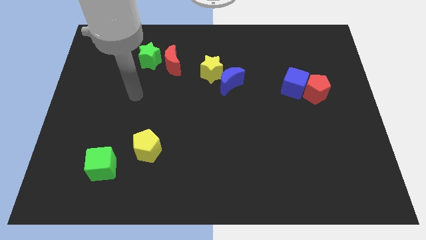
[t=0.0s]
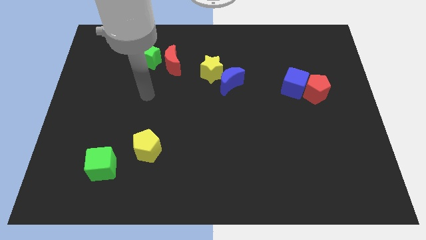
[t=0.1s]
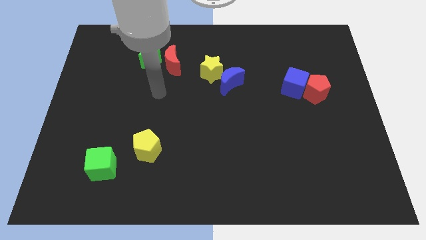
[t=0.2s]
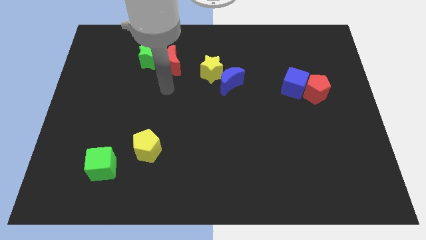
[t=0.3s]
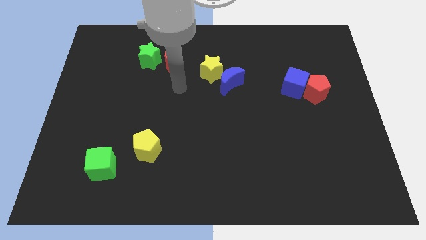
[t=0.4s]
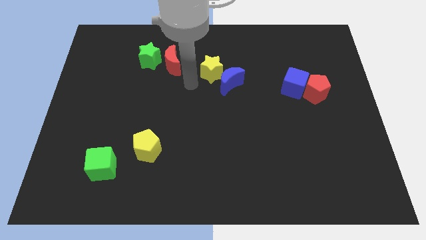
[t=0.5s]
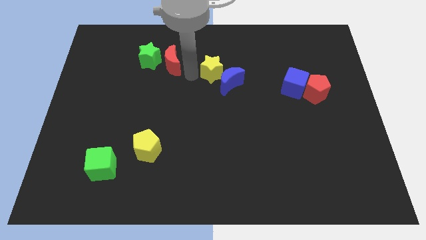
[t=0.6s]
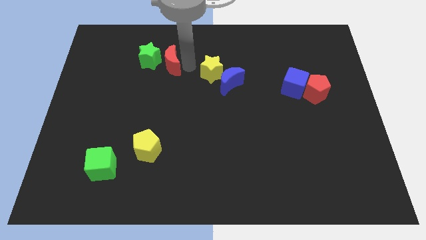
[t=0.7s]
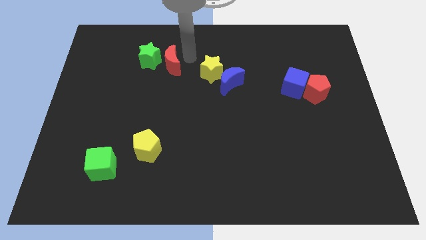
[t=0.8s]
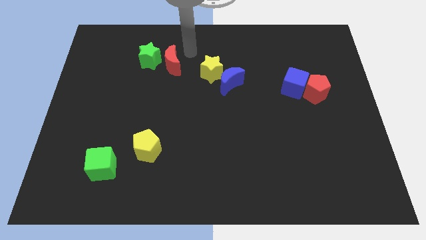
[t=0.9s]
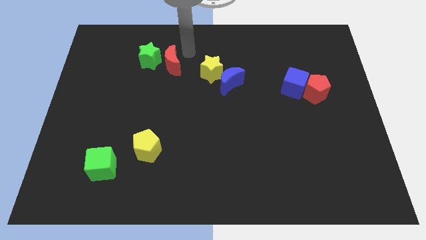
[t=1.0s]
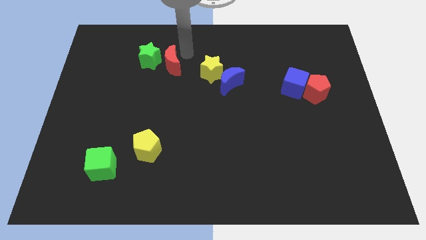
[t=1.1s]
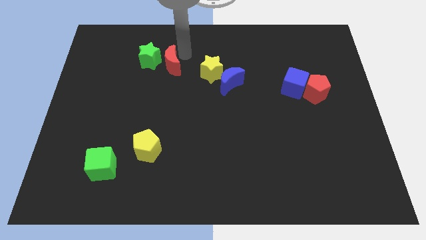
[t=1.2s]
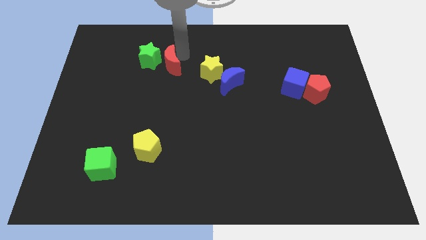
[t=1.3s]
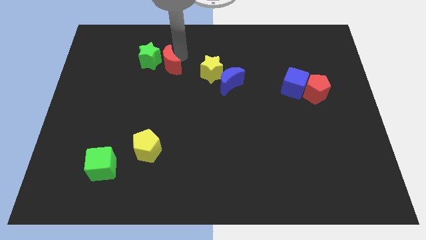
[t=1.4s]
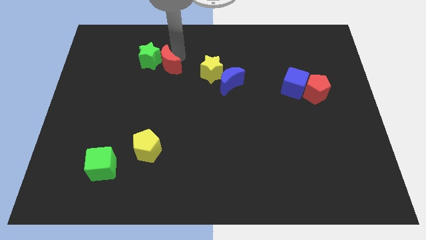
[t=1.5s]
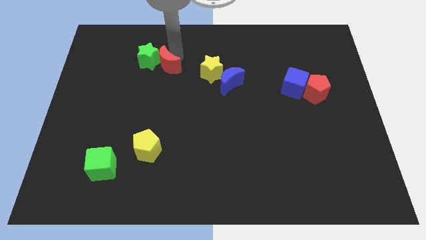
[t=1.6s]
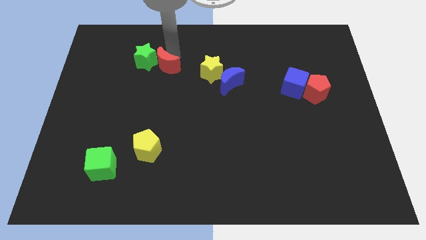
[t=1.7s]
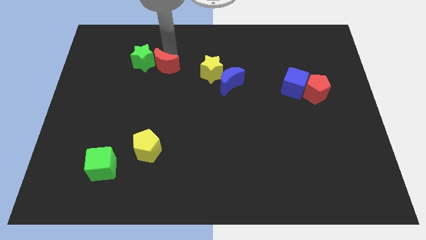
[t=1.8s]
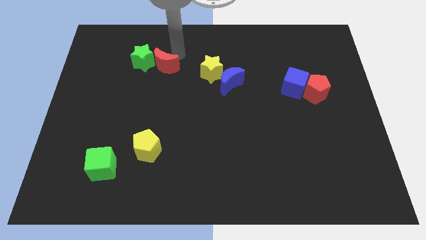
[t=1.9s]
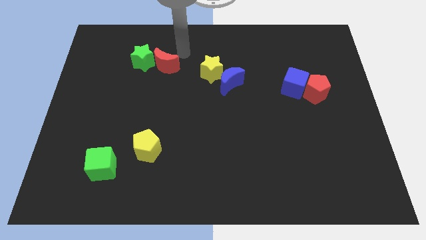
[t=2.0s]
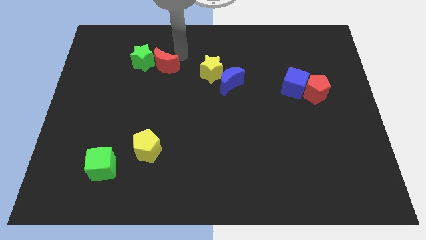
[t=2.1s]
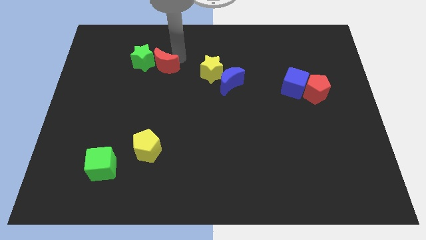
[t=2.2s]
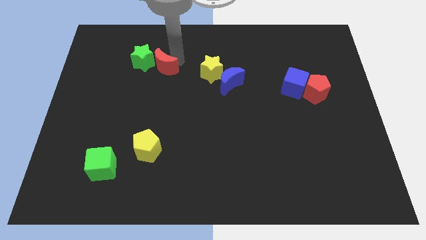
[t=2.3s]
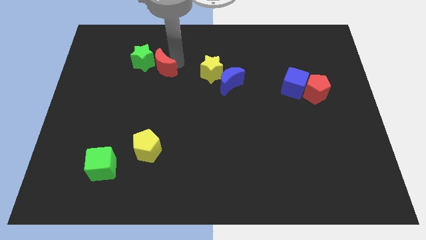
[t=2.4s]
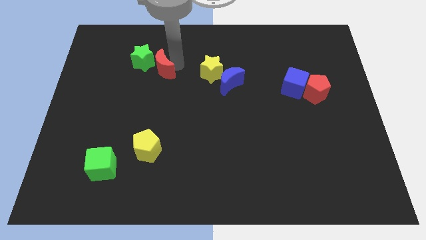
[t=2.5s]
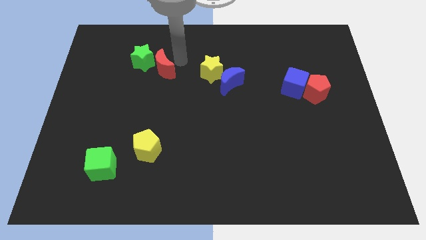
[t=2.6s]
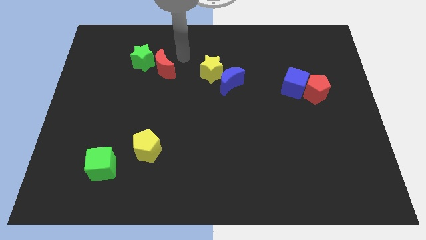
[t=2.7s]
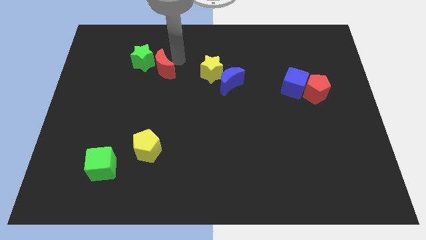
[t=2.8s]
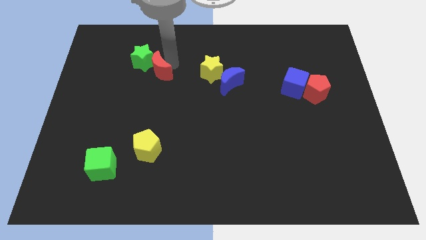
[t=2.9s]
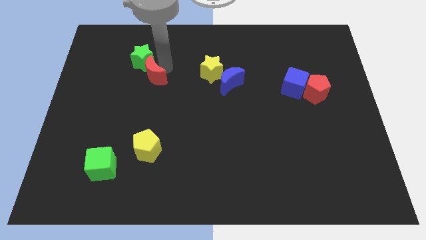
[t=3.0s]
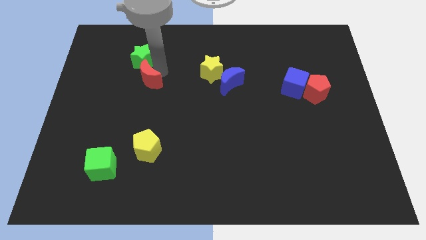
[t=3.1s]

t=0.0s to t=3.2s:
move the red moon diagonally down and left a bit

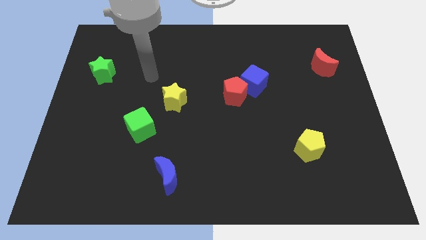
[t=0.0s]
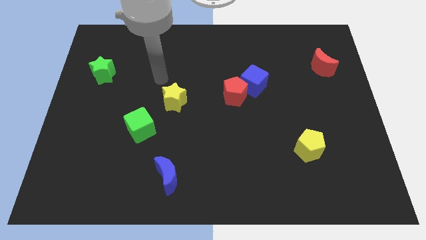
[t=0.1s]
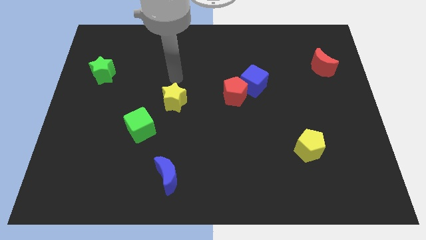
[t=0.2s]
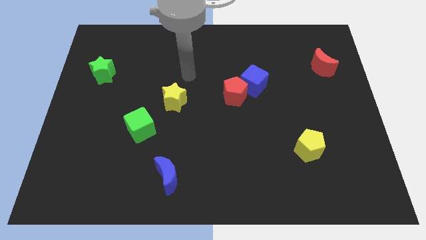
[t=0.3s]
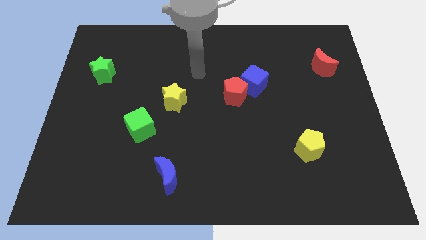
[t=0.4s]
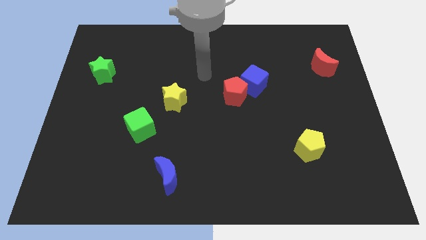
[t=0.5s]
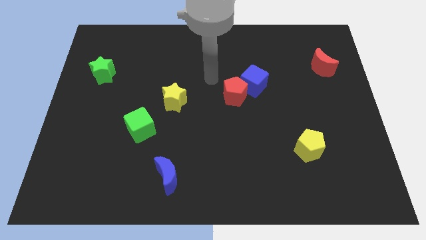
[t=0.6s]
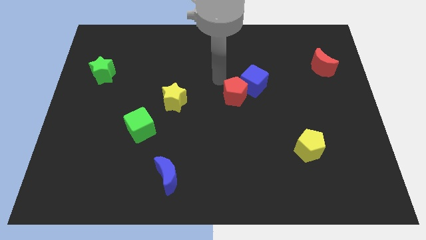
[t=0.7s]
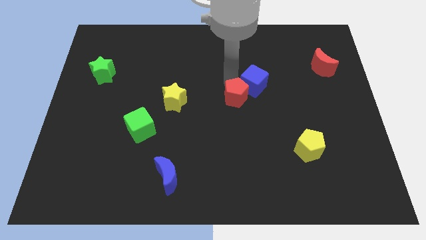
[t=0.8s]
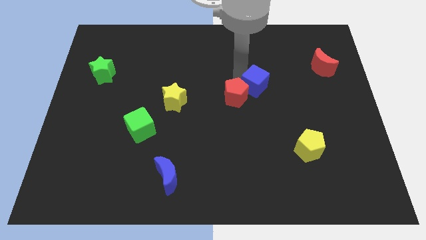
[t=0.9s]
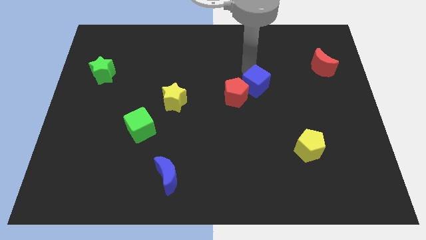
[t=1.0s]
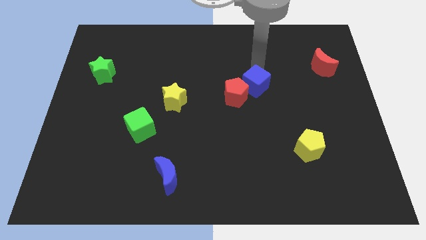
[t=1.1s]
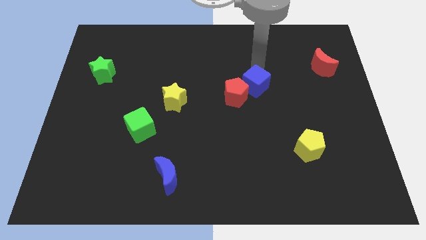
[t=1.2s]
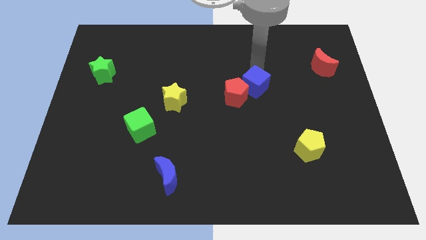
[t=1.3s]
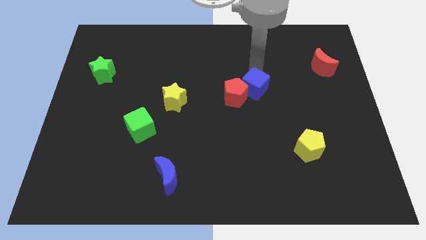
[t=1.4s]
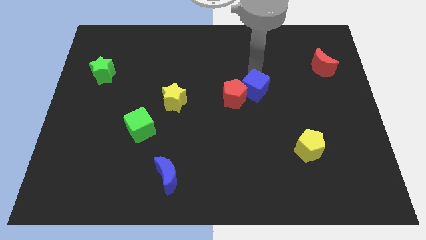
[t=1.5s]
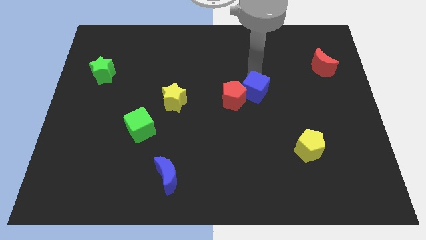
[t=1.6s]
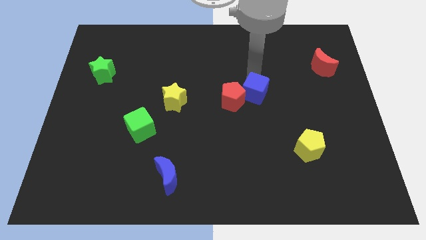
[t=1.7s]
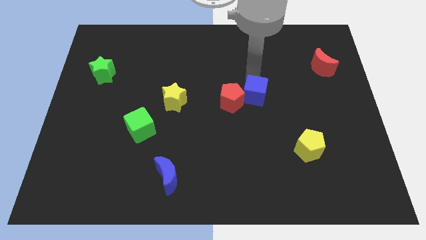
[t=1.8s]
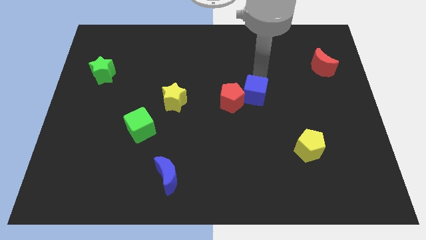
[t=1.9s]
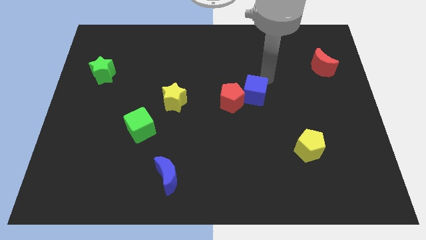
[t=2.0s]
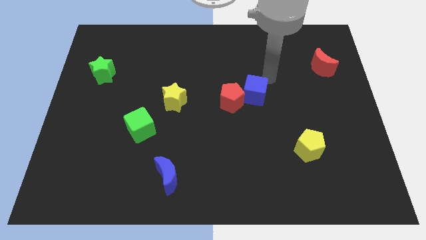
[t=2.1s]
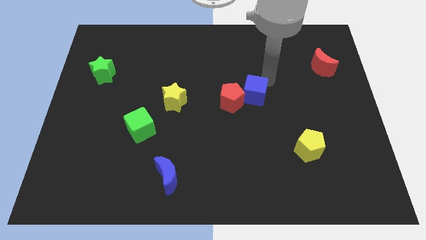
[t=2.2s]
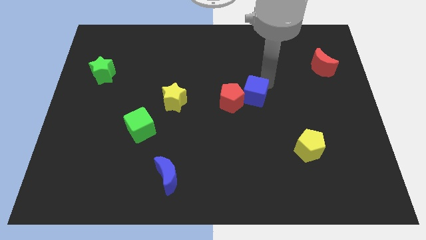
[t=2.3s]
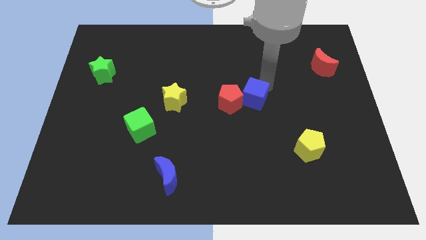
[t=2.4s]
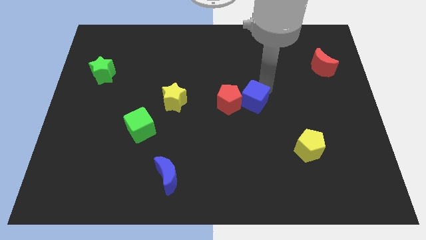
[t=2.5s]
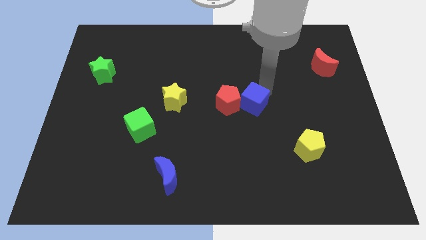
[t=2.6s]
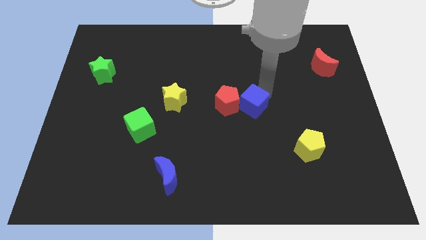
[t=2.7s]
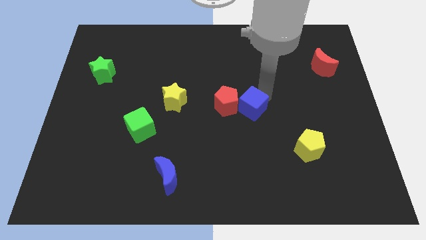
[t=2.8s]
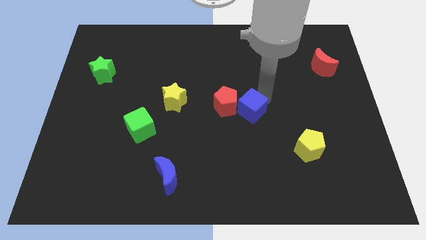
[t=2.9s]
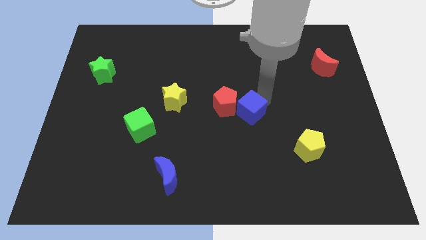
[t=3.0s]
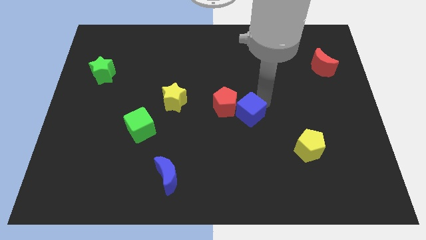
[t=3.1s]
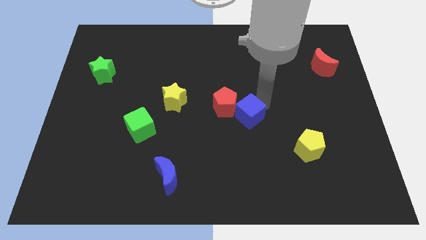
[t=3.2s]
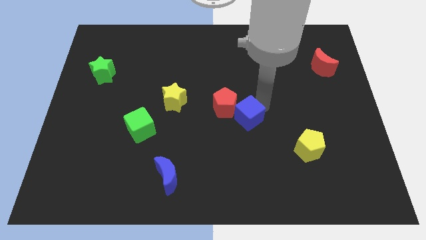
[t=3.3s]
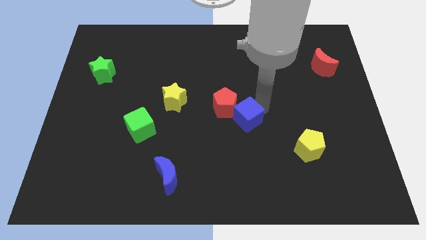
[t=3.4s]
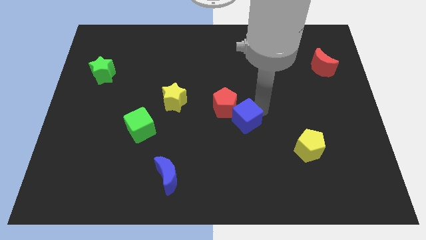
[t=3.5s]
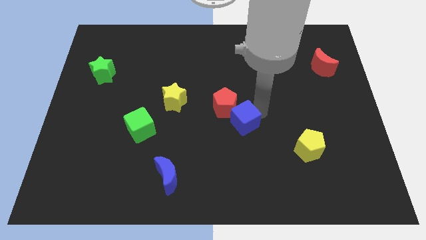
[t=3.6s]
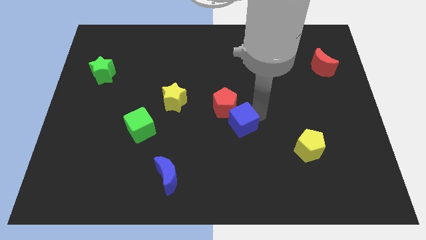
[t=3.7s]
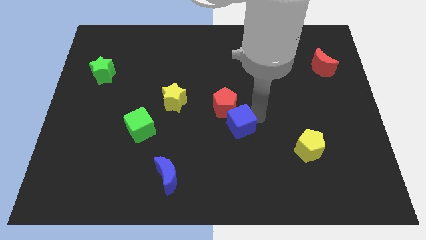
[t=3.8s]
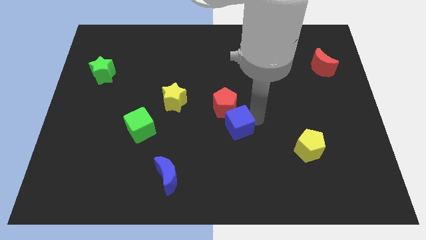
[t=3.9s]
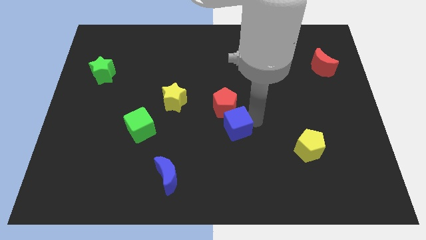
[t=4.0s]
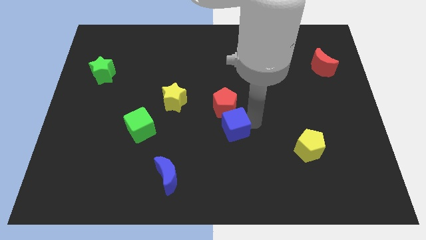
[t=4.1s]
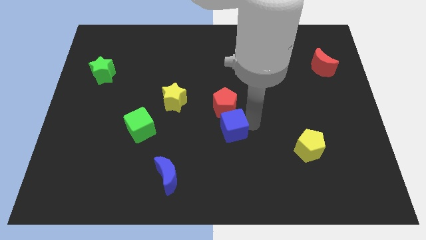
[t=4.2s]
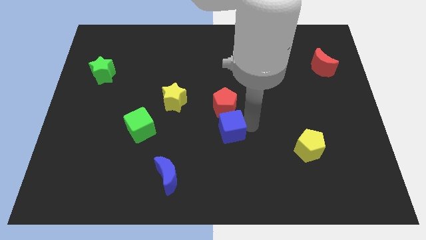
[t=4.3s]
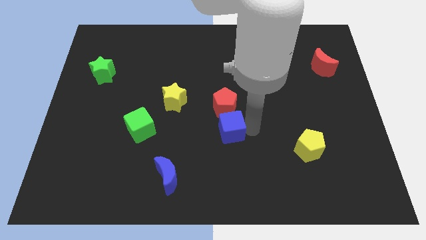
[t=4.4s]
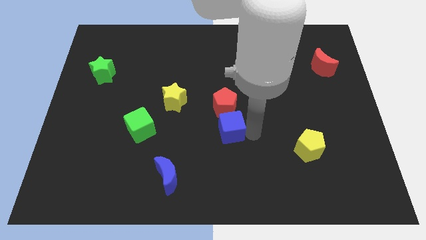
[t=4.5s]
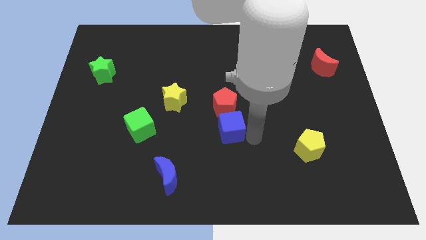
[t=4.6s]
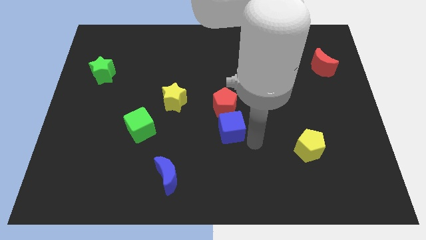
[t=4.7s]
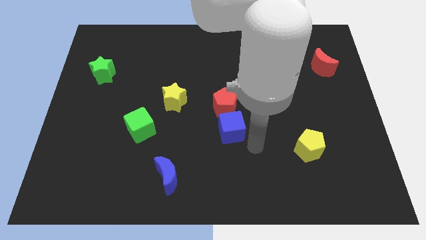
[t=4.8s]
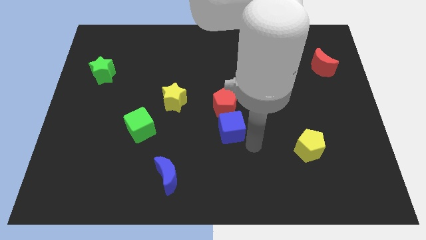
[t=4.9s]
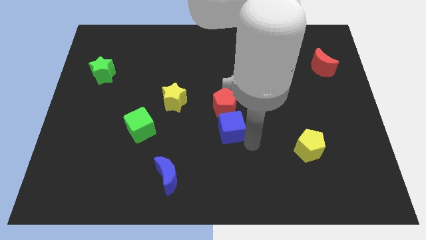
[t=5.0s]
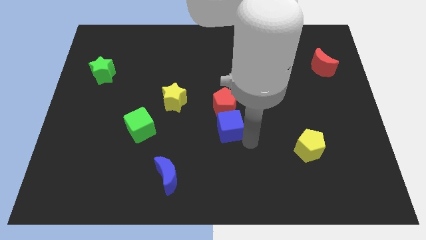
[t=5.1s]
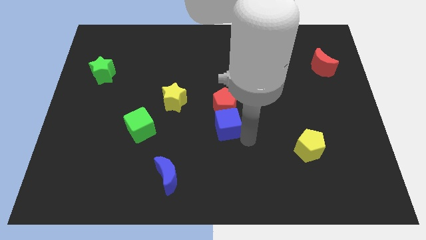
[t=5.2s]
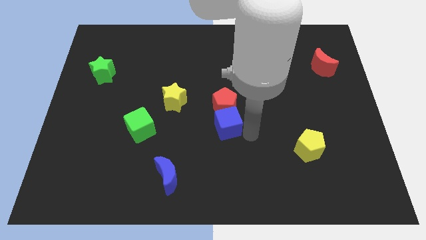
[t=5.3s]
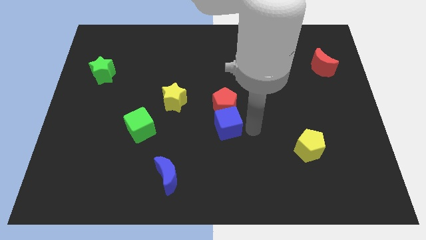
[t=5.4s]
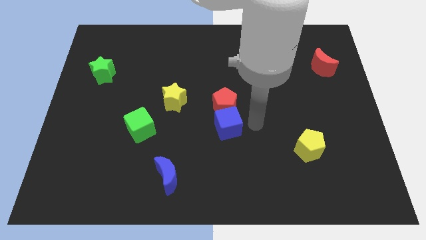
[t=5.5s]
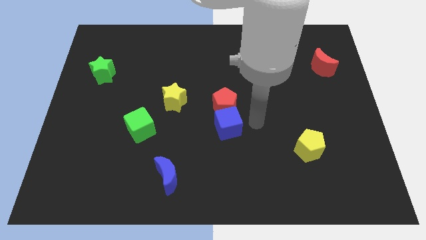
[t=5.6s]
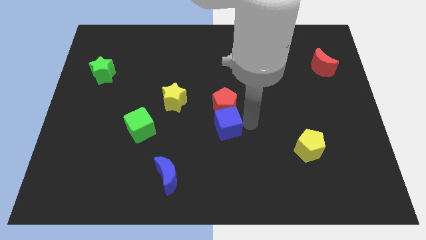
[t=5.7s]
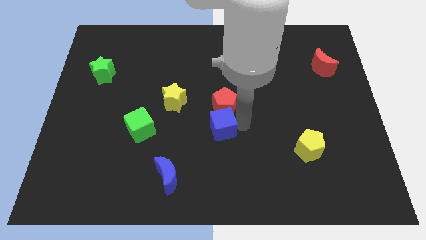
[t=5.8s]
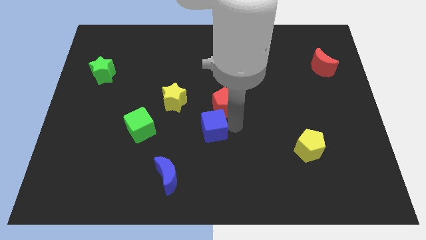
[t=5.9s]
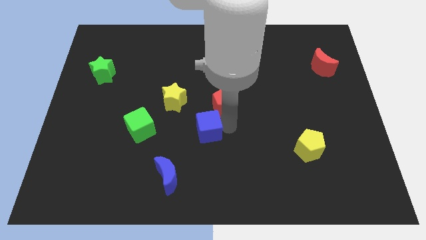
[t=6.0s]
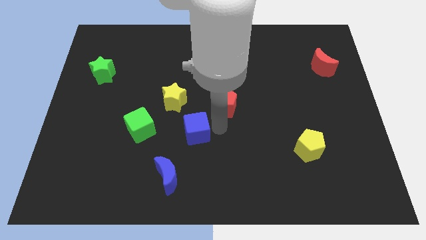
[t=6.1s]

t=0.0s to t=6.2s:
slide the blue cube downwards and left
